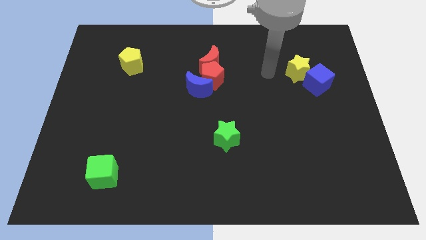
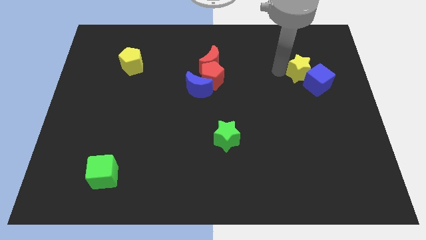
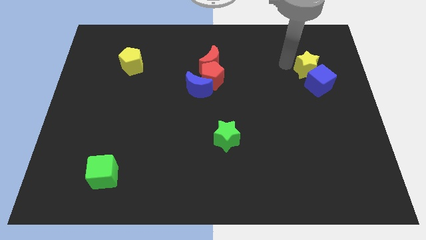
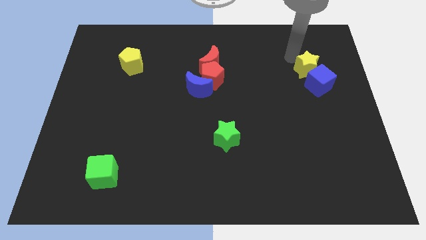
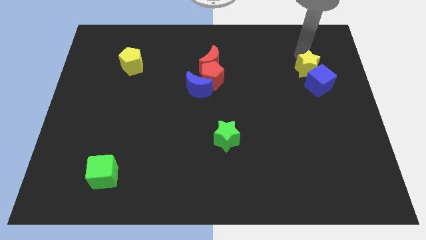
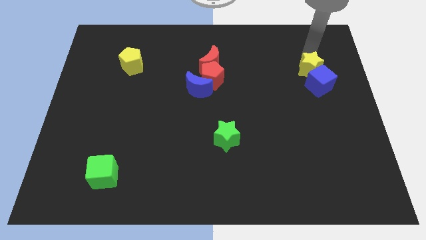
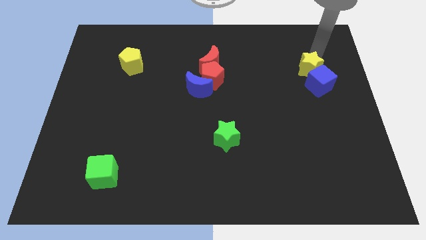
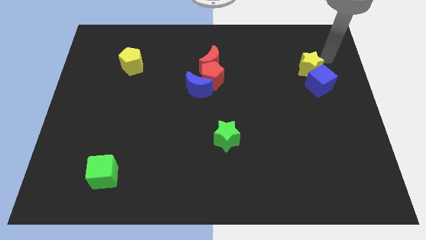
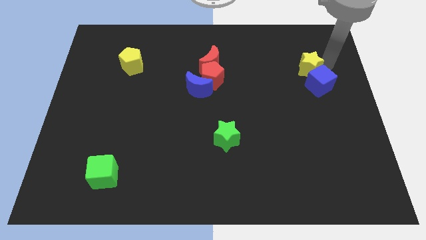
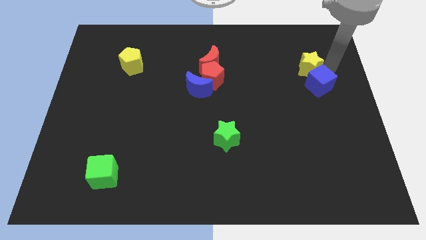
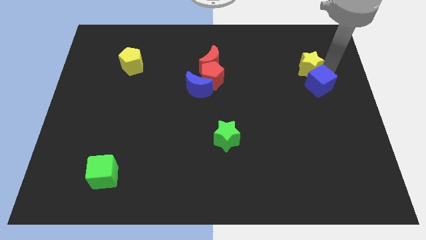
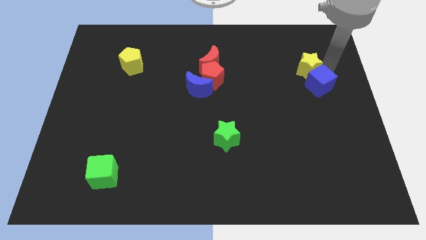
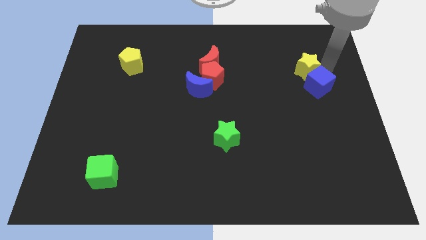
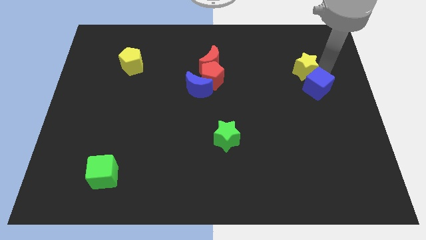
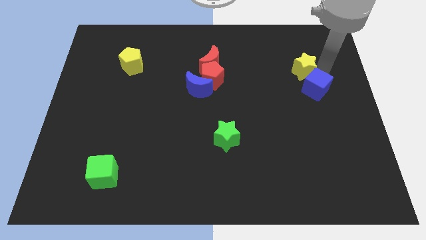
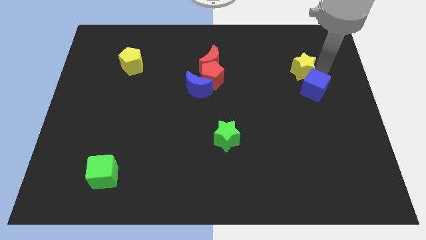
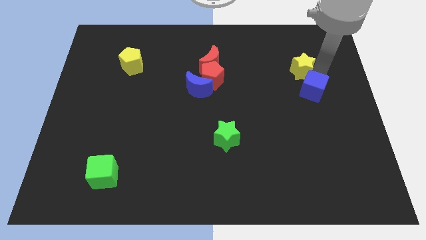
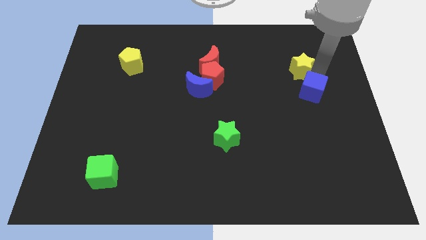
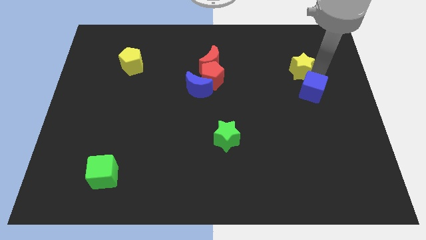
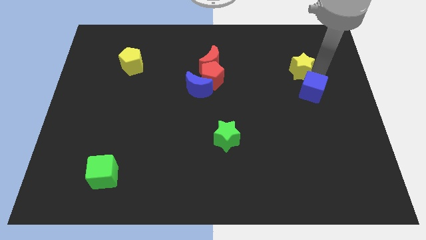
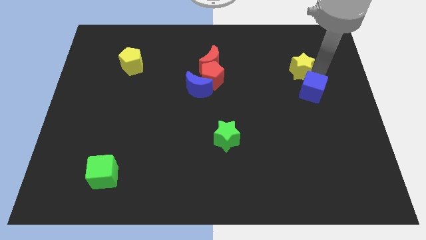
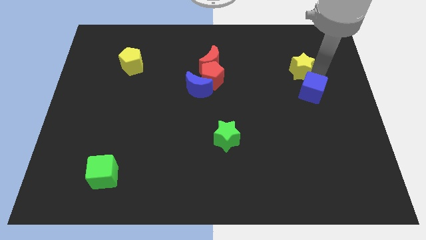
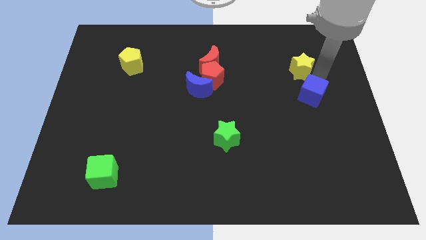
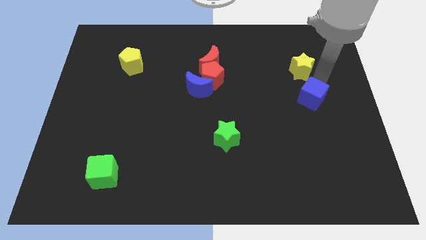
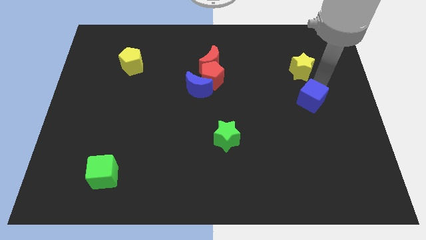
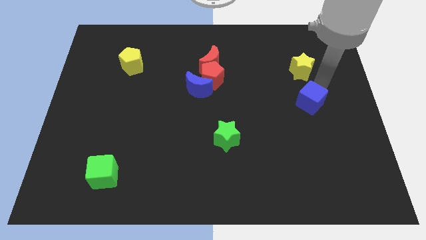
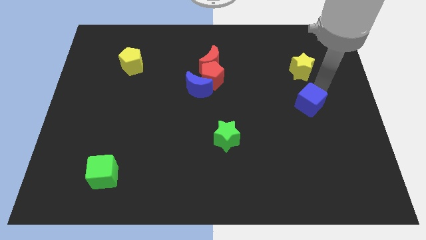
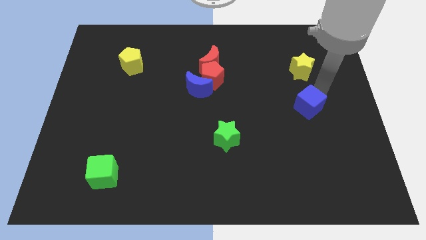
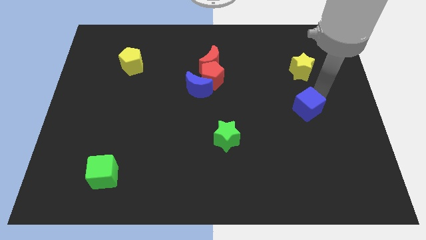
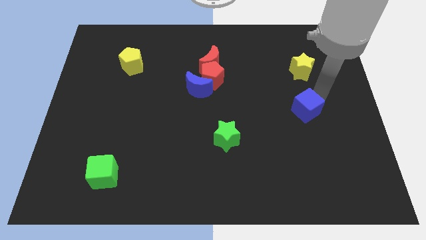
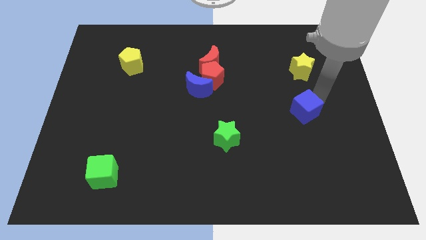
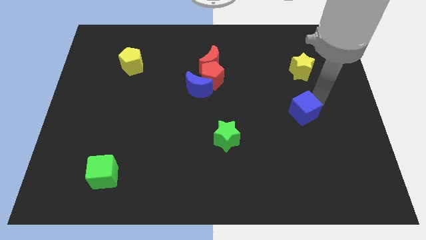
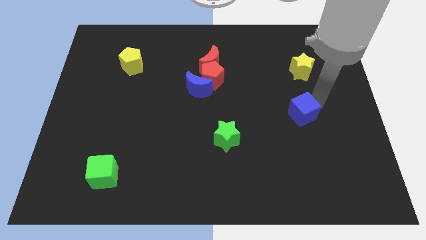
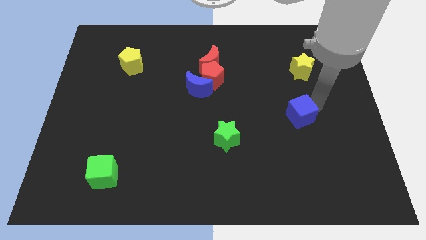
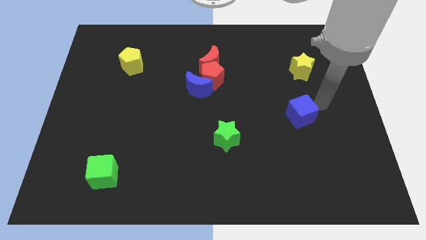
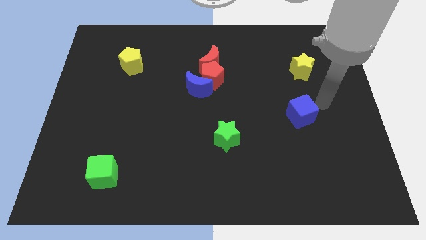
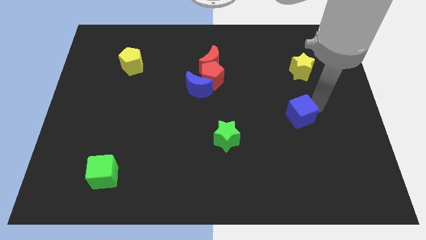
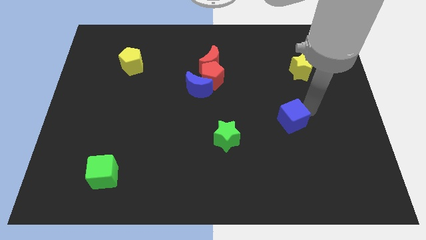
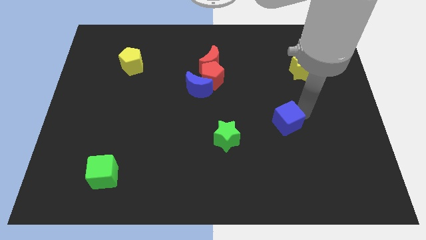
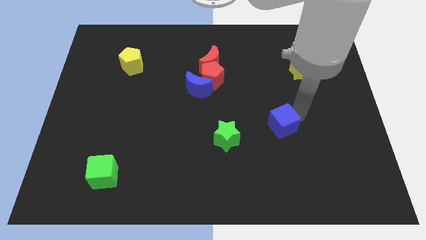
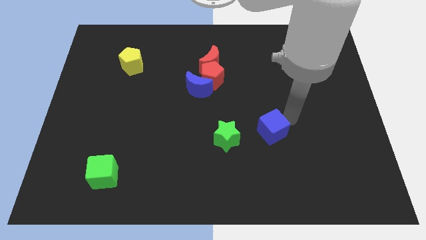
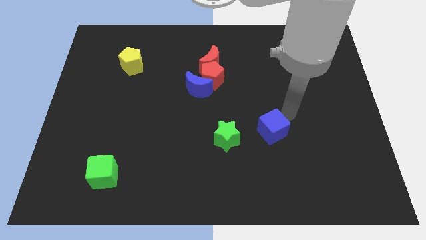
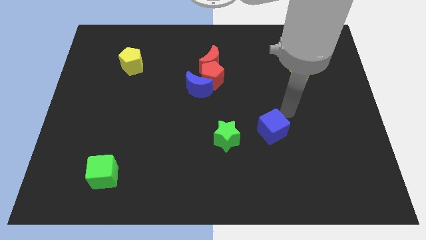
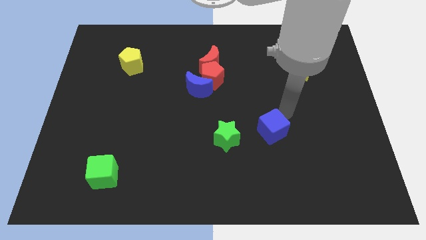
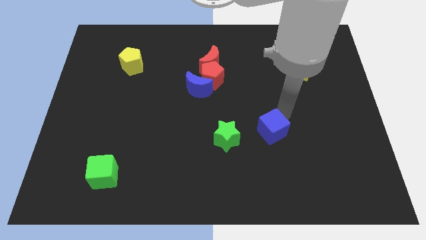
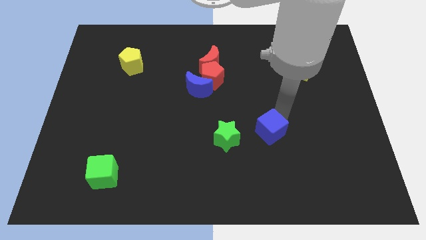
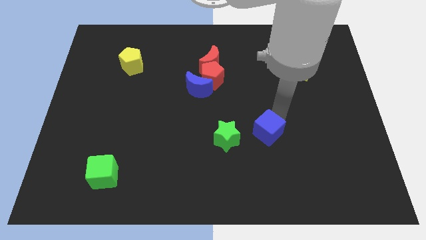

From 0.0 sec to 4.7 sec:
move the blue cube down and then to the left

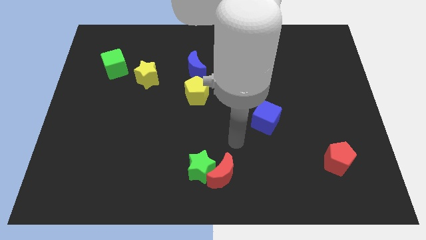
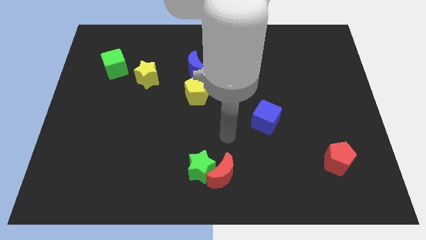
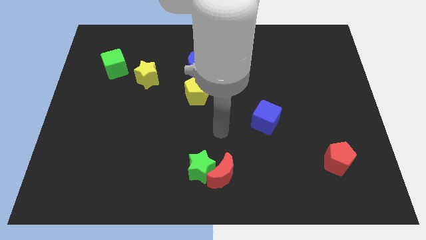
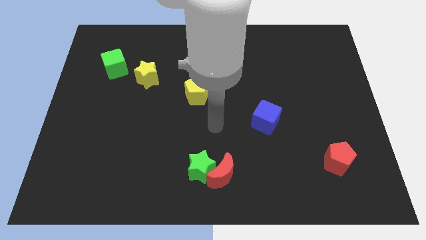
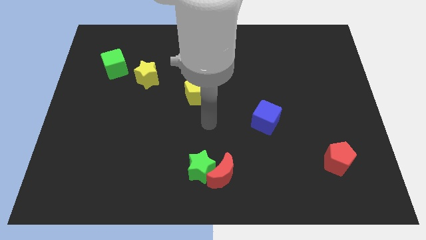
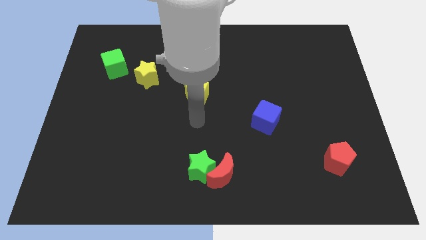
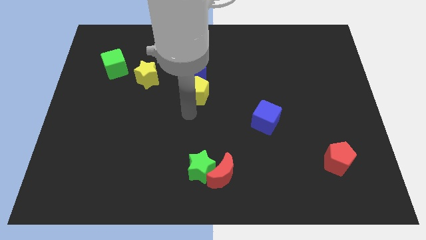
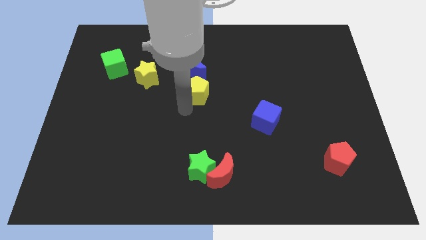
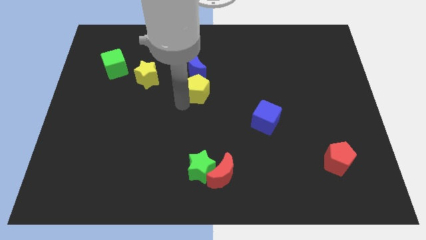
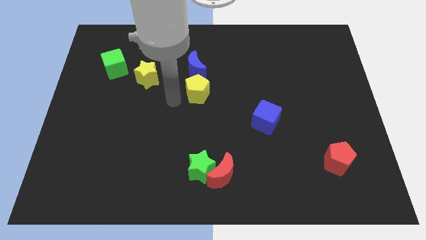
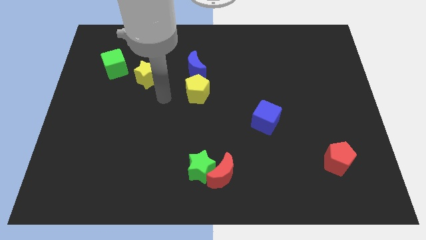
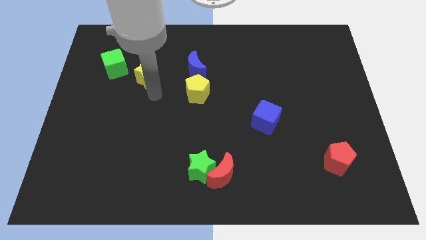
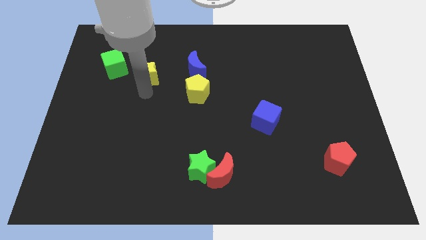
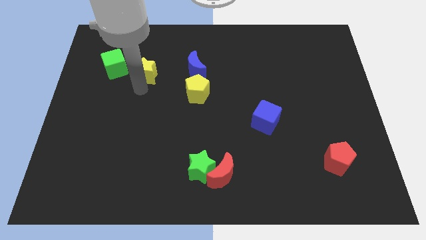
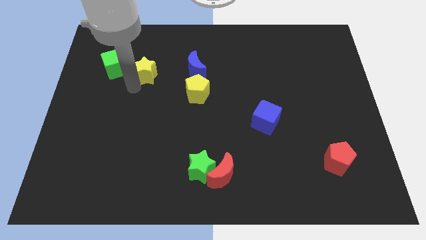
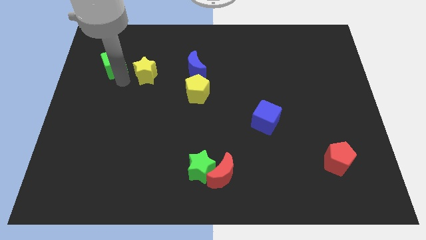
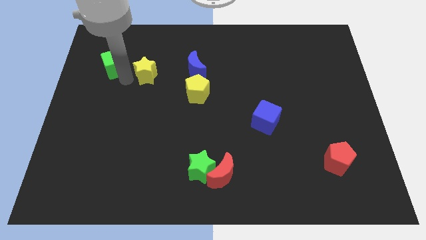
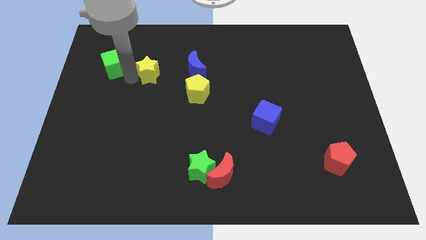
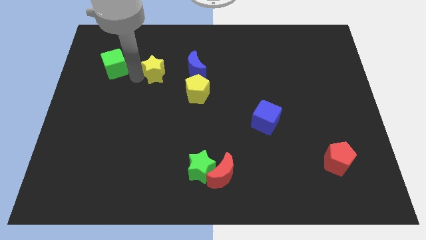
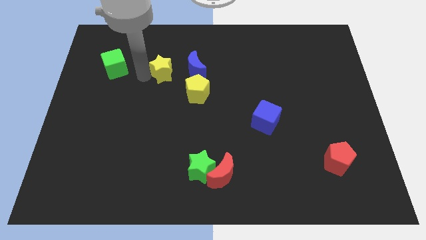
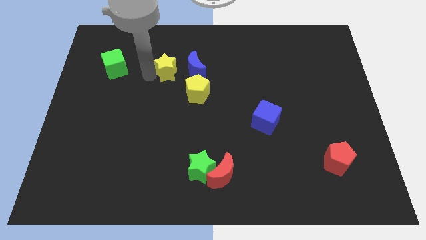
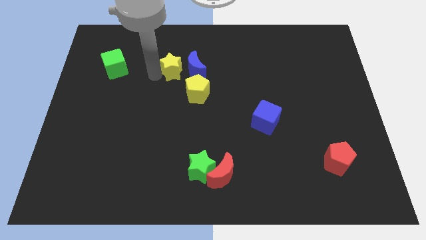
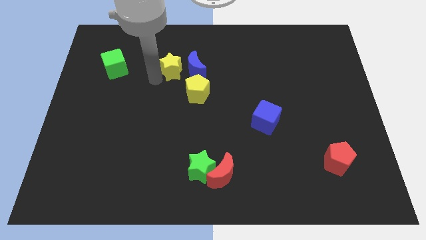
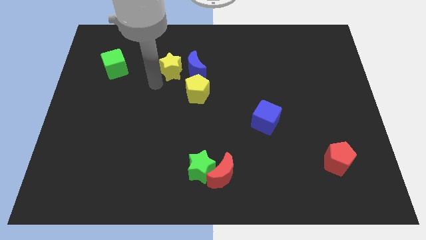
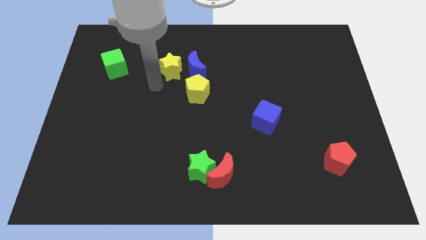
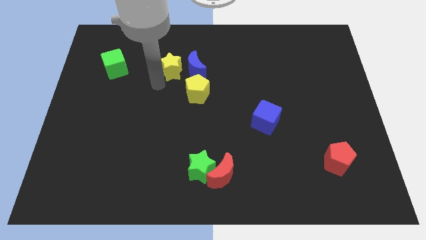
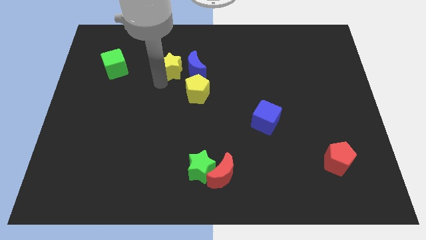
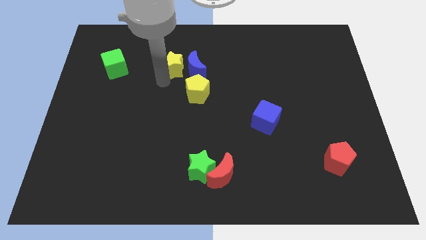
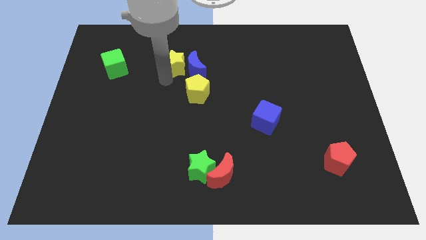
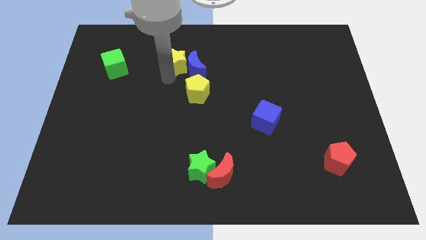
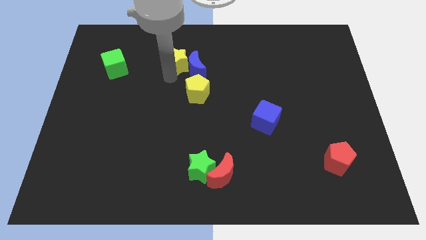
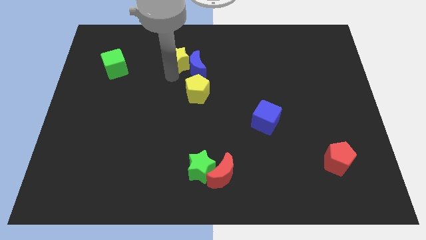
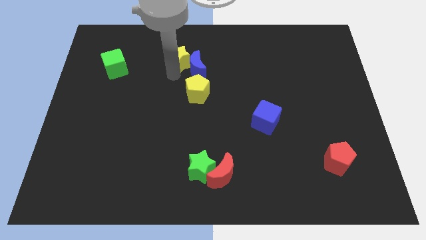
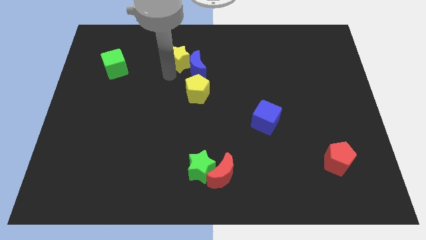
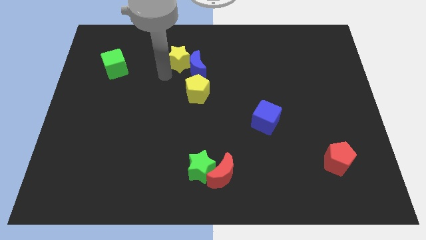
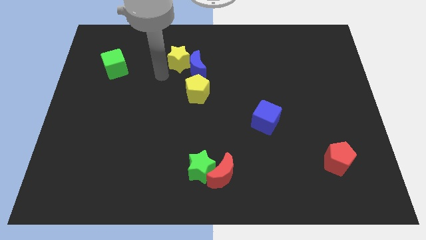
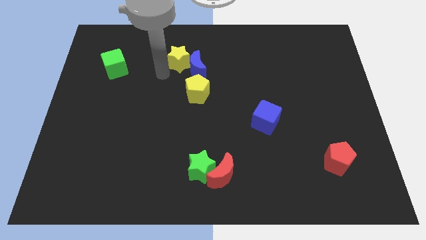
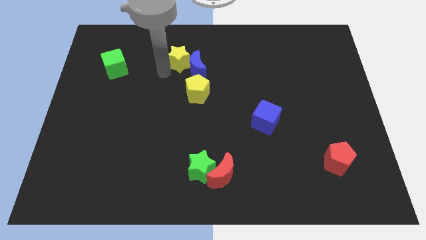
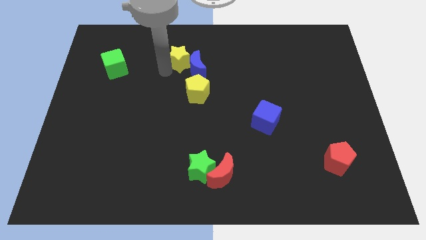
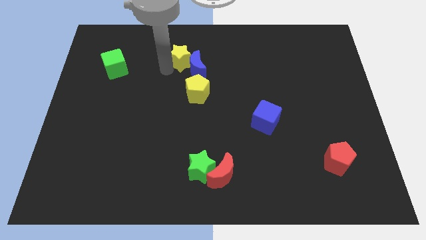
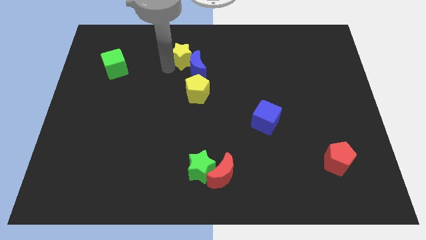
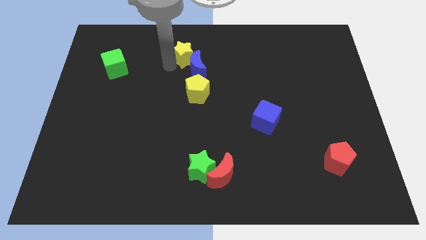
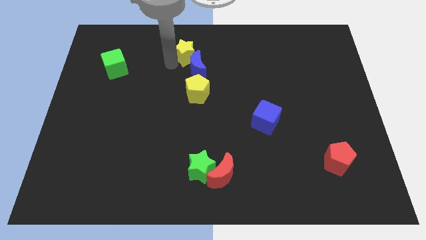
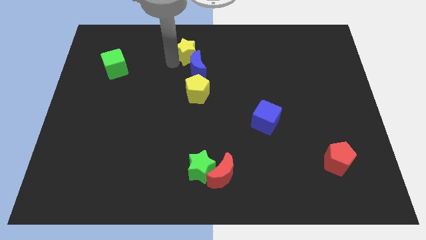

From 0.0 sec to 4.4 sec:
slightly move the yellow star to the right
